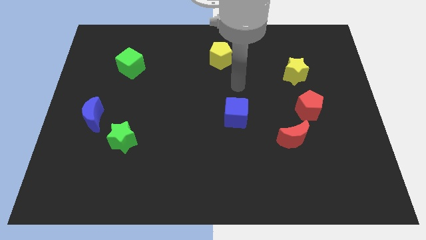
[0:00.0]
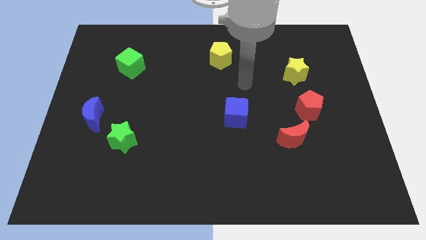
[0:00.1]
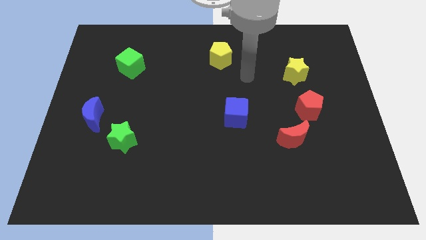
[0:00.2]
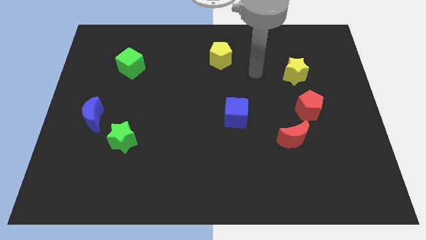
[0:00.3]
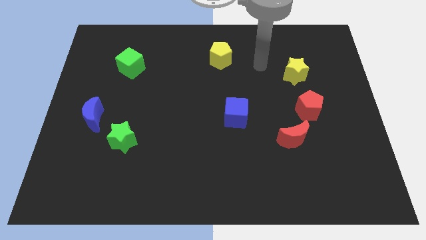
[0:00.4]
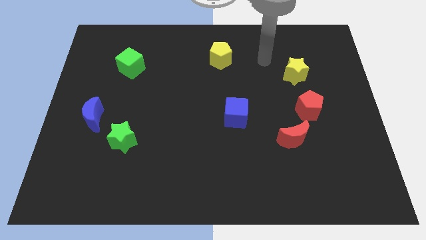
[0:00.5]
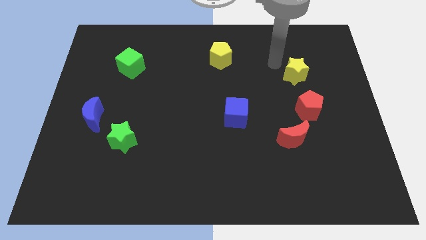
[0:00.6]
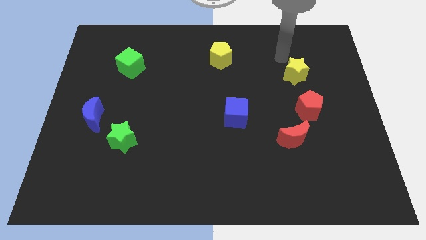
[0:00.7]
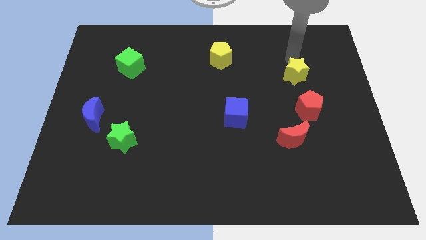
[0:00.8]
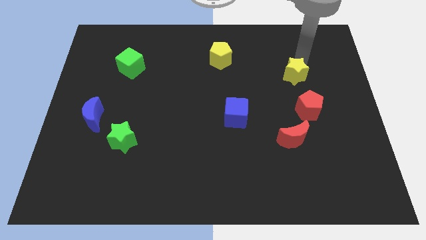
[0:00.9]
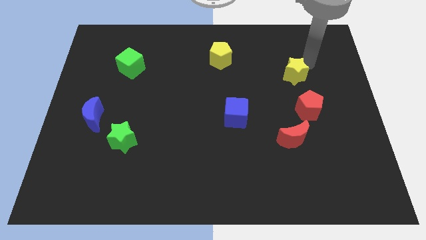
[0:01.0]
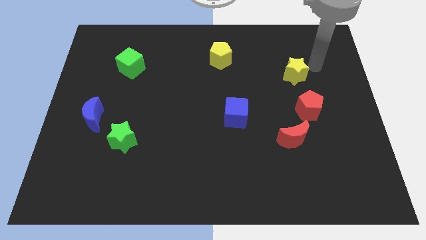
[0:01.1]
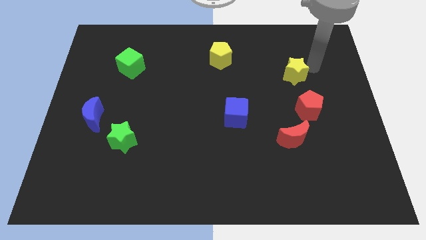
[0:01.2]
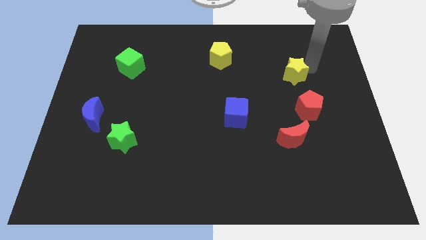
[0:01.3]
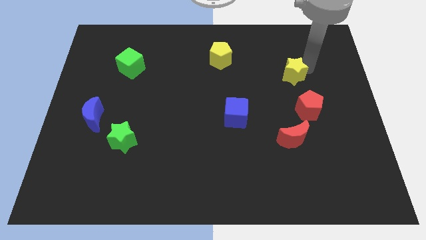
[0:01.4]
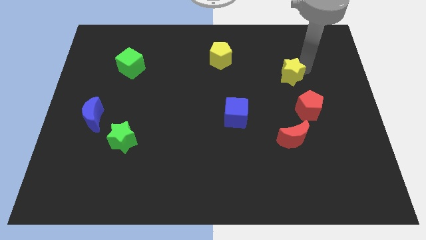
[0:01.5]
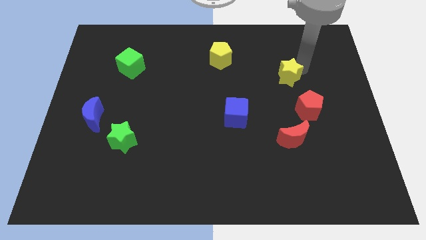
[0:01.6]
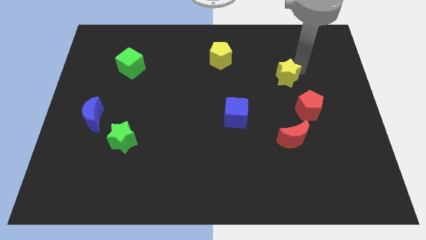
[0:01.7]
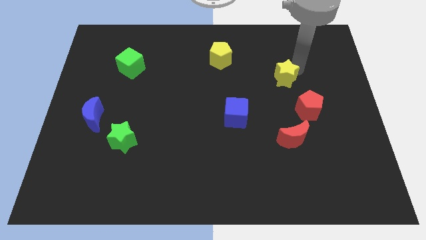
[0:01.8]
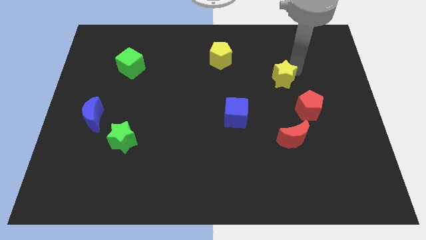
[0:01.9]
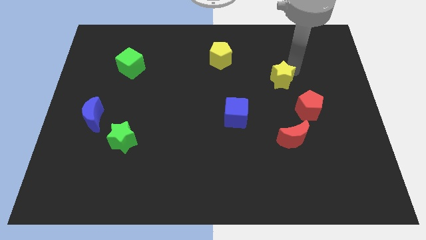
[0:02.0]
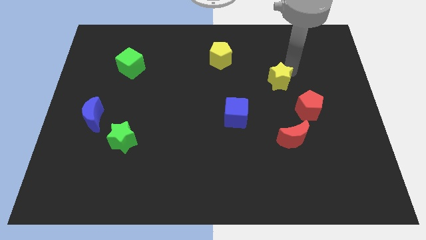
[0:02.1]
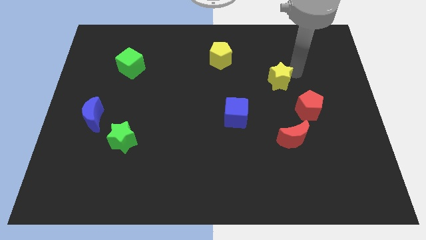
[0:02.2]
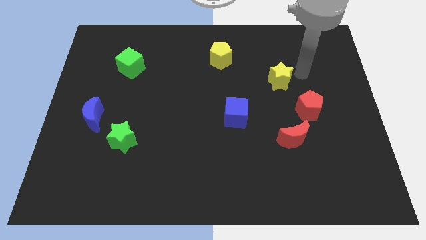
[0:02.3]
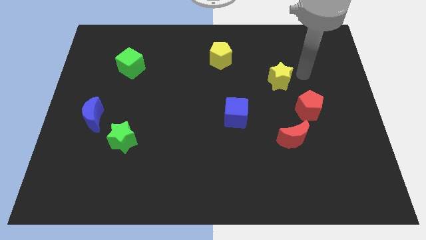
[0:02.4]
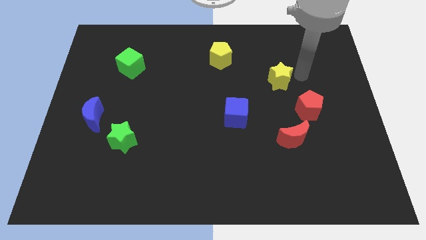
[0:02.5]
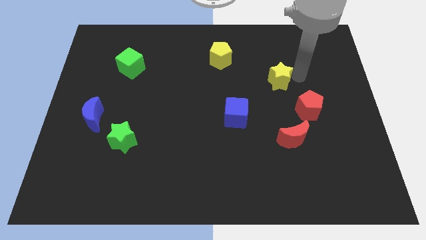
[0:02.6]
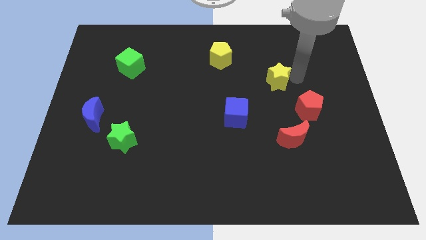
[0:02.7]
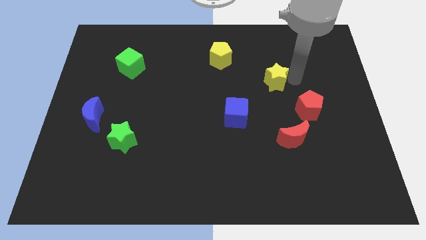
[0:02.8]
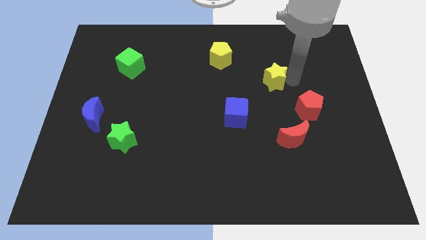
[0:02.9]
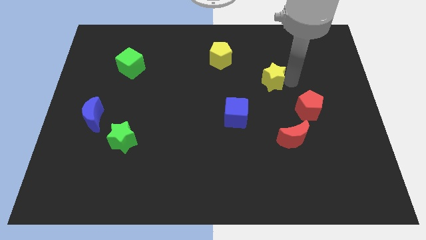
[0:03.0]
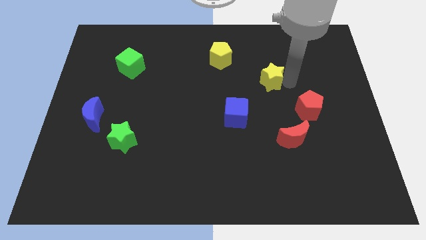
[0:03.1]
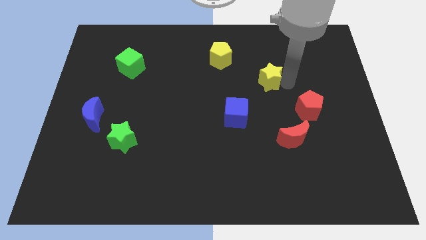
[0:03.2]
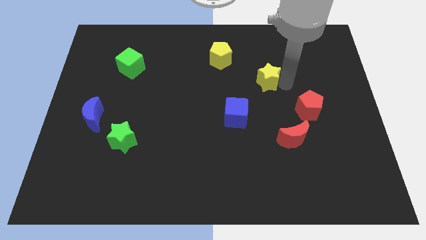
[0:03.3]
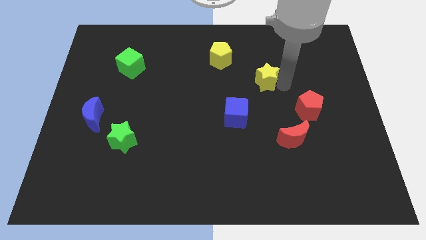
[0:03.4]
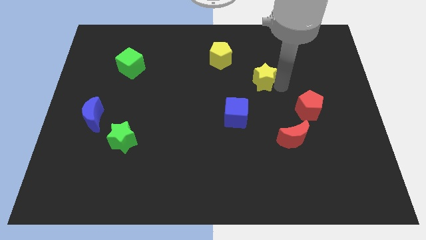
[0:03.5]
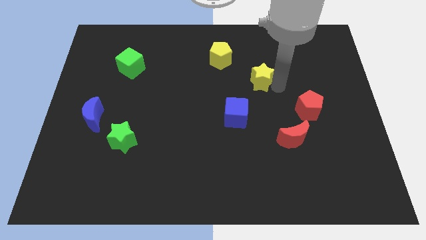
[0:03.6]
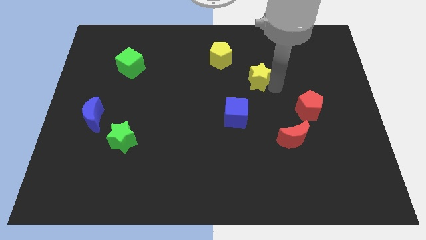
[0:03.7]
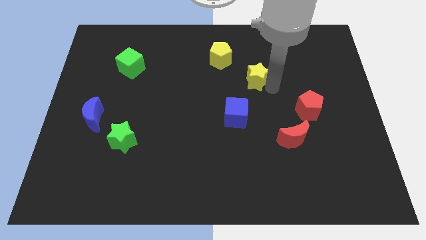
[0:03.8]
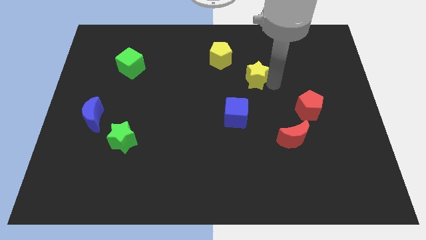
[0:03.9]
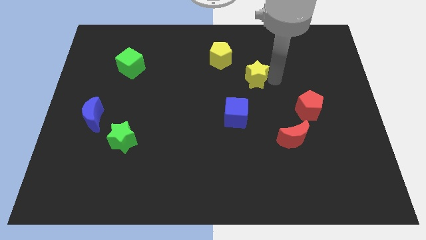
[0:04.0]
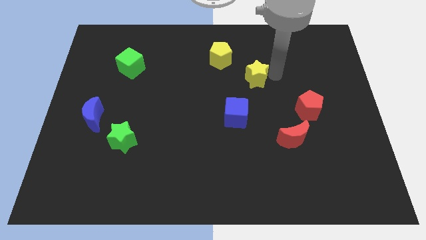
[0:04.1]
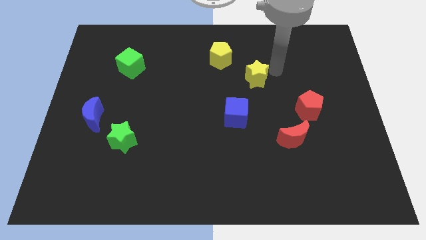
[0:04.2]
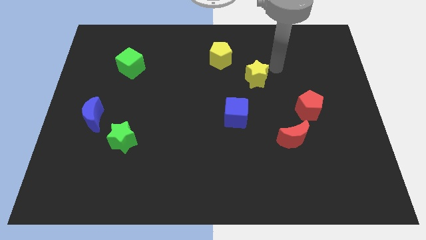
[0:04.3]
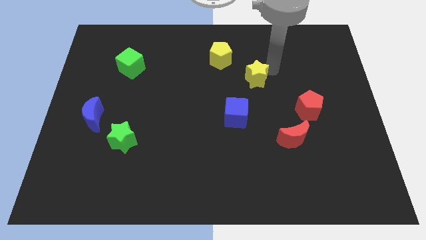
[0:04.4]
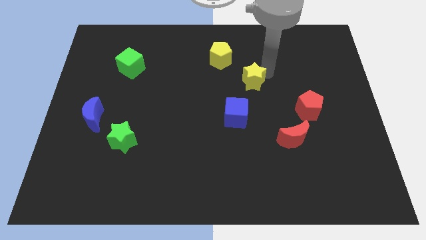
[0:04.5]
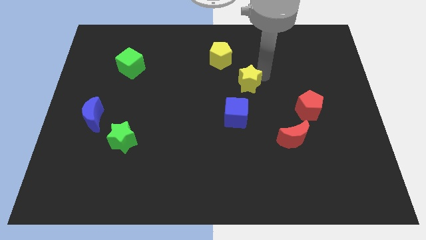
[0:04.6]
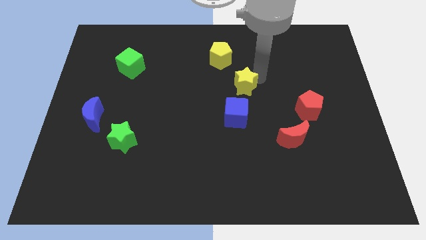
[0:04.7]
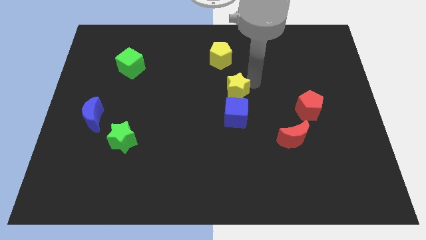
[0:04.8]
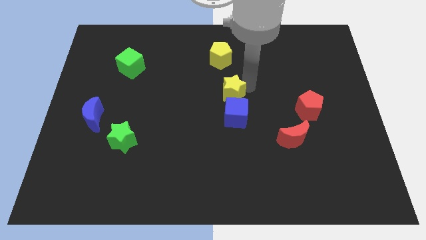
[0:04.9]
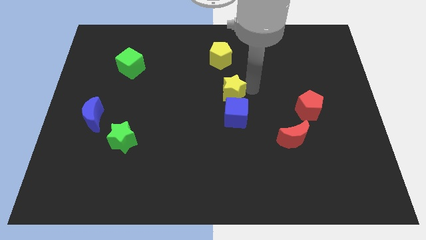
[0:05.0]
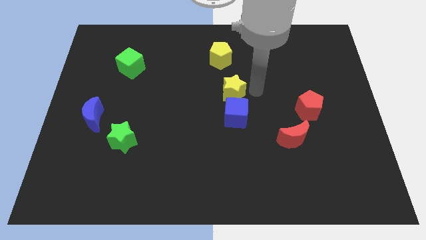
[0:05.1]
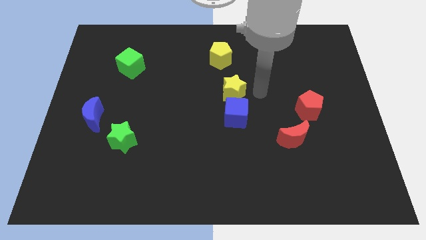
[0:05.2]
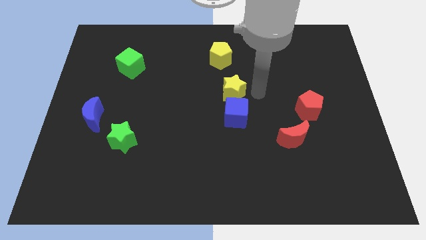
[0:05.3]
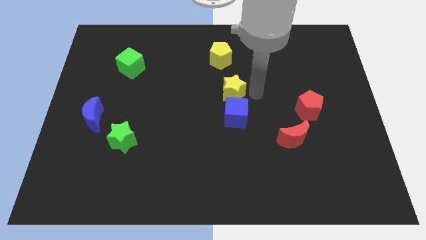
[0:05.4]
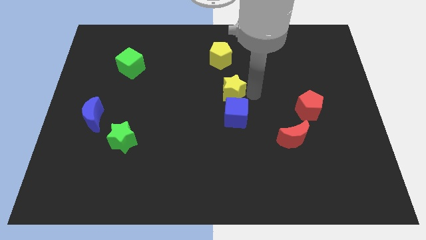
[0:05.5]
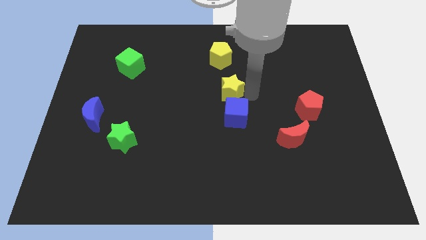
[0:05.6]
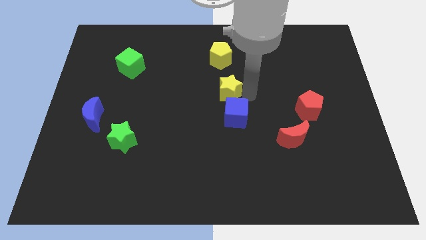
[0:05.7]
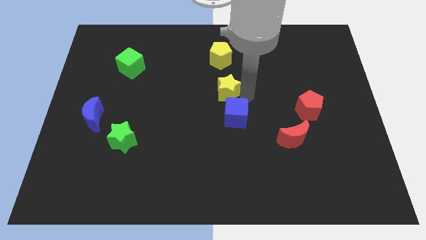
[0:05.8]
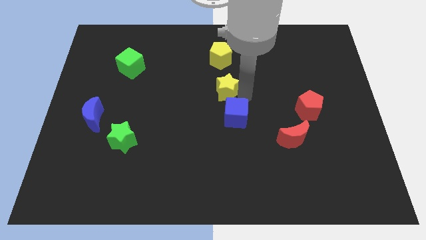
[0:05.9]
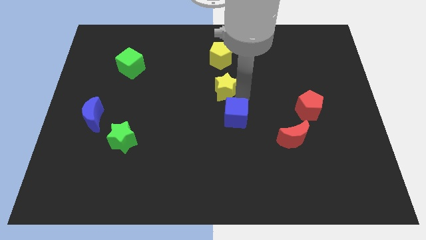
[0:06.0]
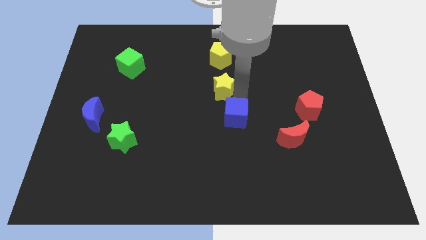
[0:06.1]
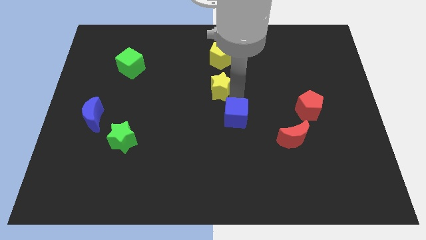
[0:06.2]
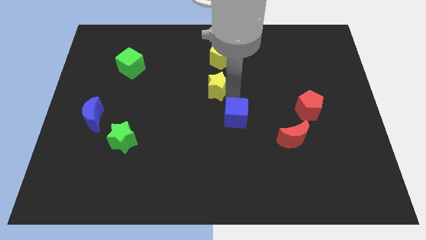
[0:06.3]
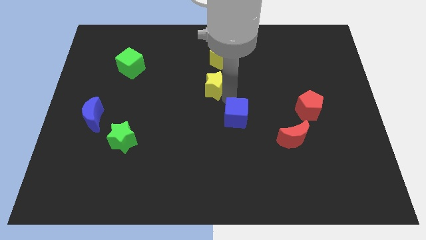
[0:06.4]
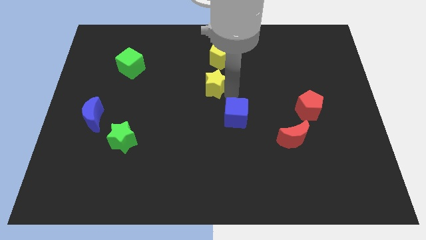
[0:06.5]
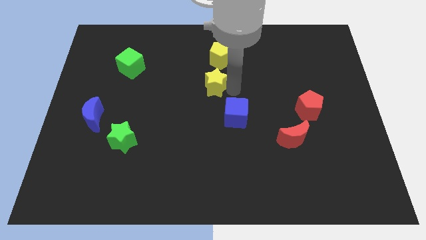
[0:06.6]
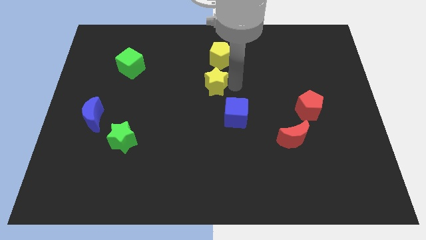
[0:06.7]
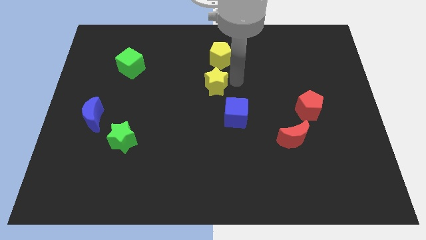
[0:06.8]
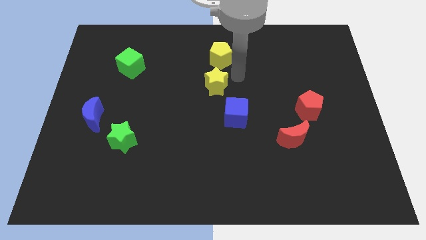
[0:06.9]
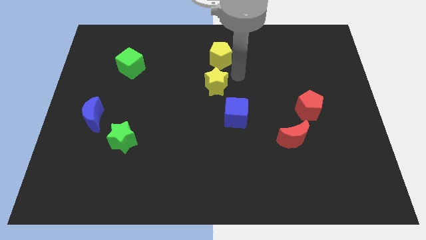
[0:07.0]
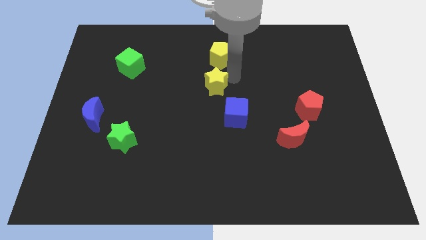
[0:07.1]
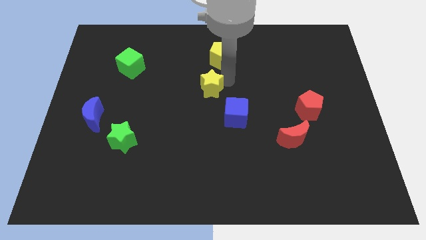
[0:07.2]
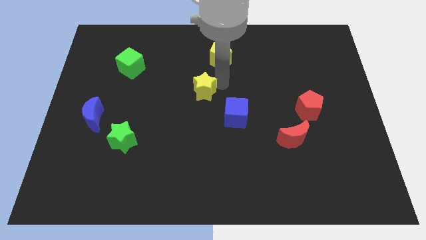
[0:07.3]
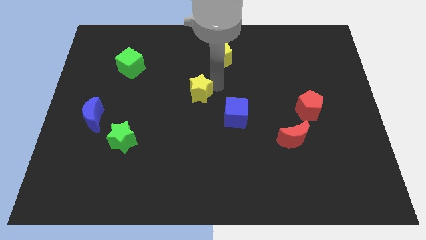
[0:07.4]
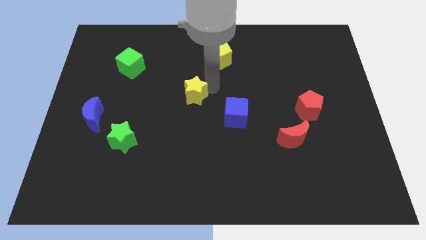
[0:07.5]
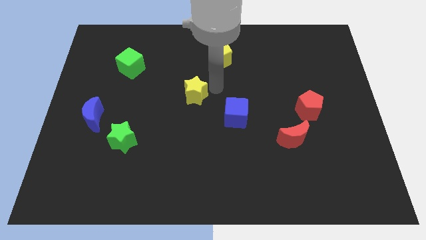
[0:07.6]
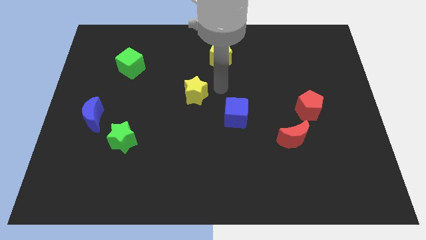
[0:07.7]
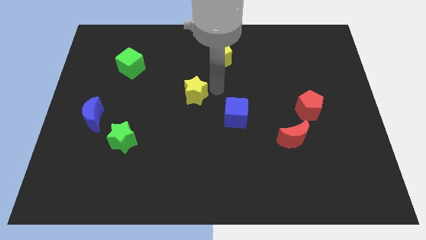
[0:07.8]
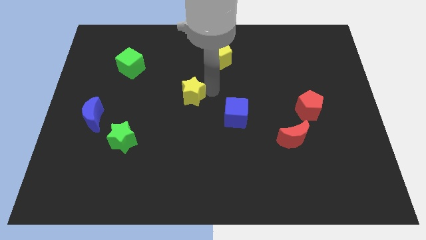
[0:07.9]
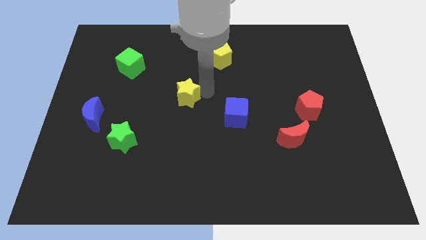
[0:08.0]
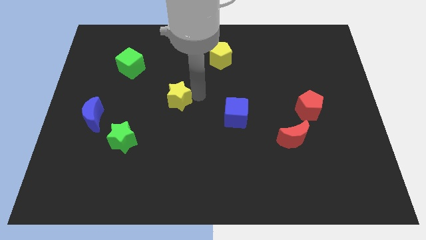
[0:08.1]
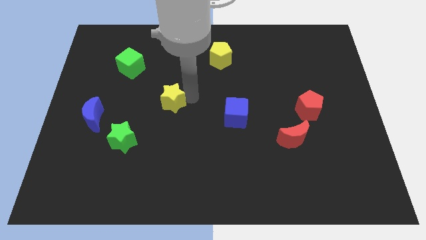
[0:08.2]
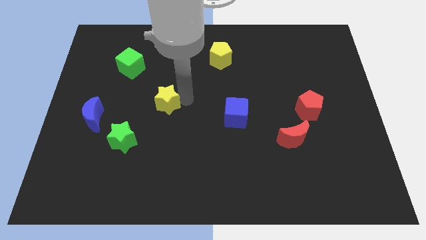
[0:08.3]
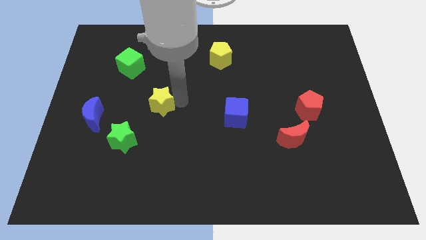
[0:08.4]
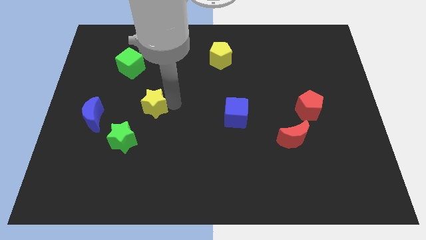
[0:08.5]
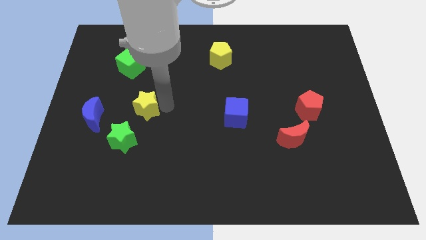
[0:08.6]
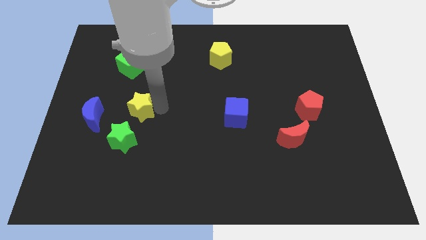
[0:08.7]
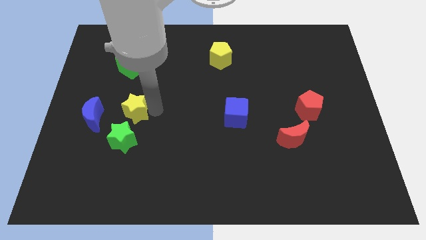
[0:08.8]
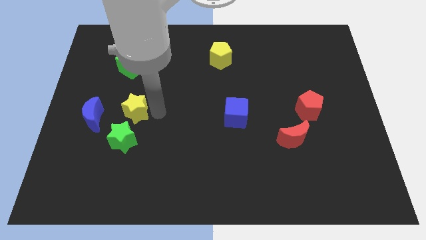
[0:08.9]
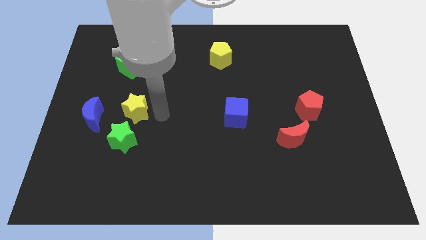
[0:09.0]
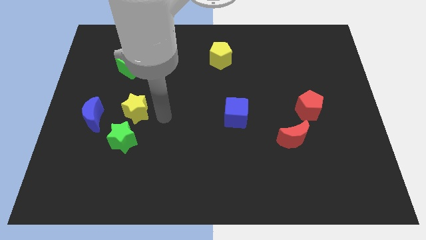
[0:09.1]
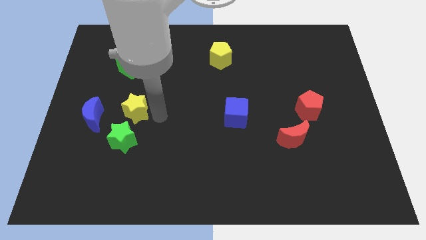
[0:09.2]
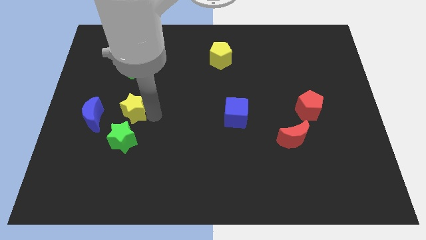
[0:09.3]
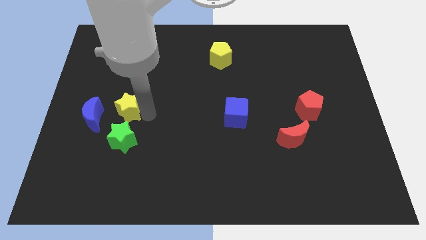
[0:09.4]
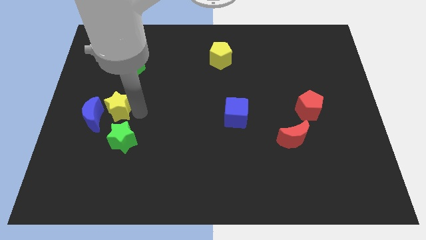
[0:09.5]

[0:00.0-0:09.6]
slide the yellow star next to the blue moon
